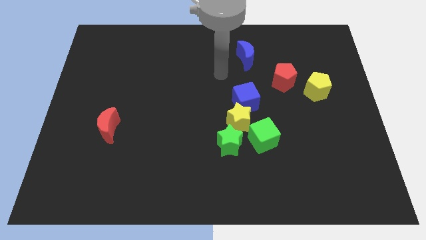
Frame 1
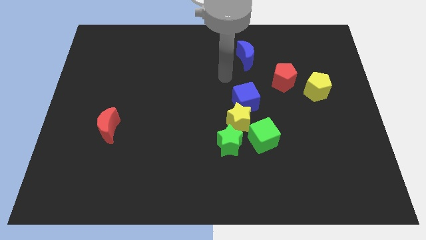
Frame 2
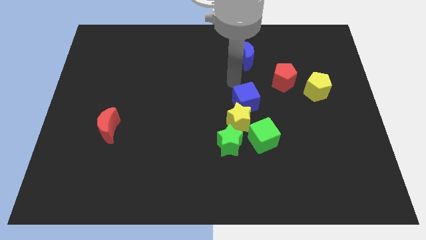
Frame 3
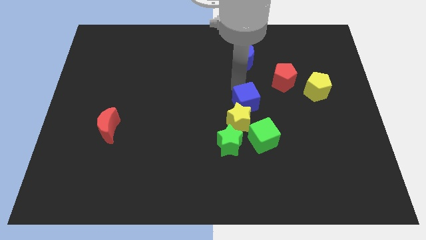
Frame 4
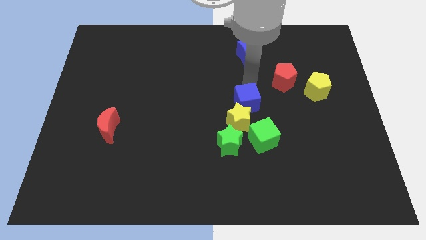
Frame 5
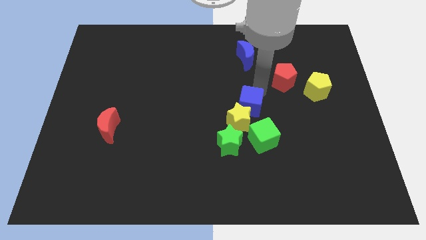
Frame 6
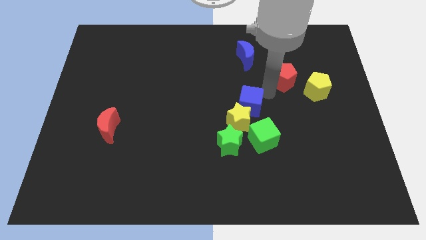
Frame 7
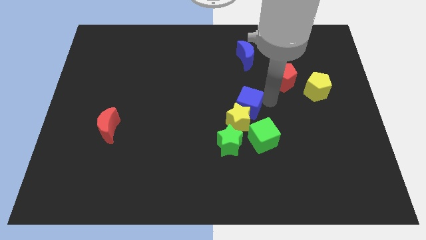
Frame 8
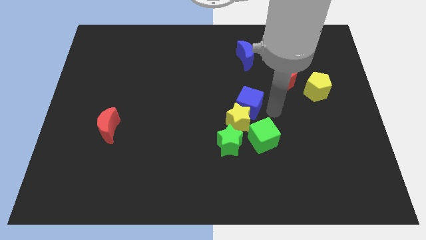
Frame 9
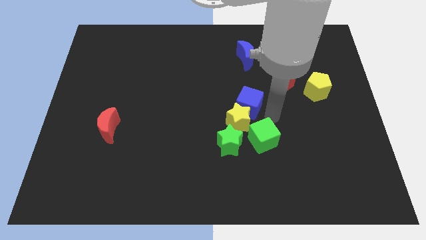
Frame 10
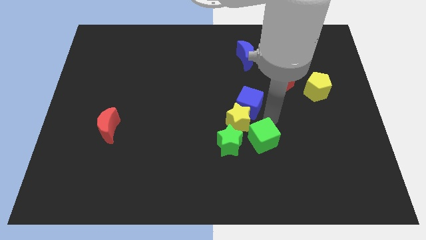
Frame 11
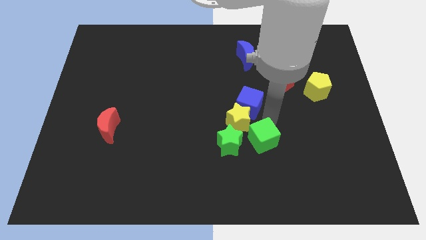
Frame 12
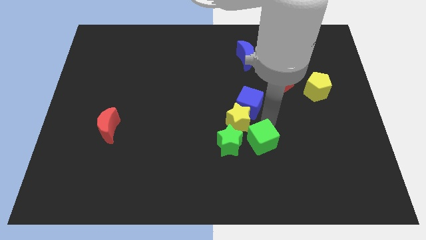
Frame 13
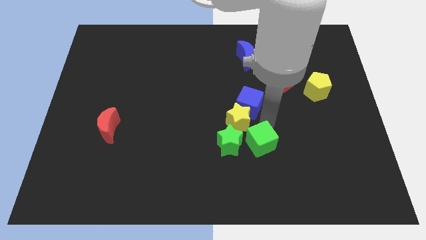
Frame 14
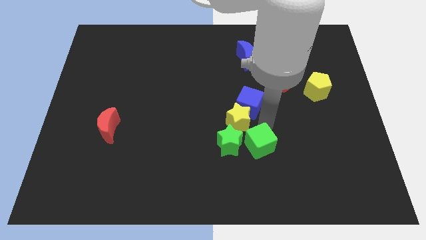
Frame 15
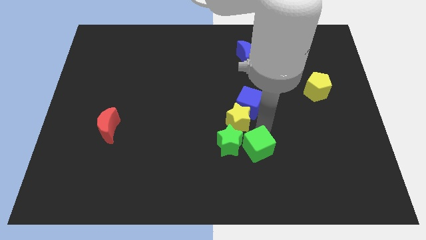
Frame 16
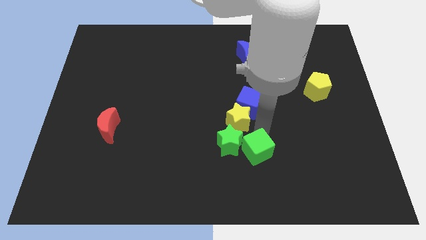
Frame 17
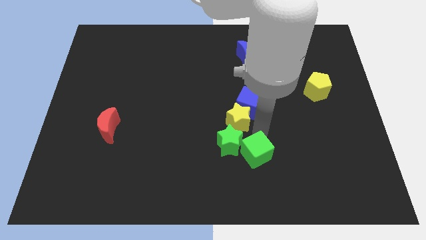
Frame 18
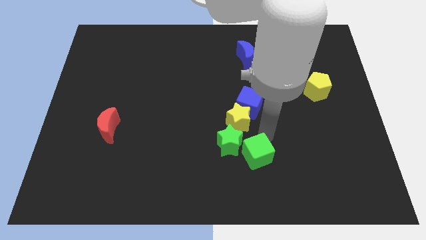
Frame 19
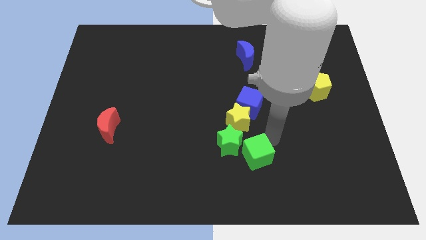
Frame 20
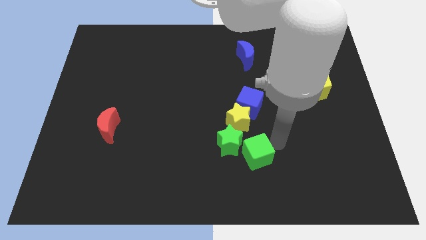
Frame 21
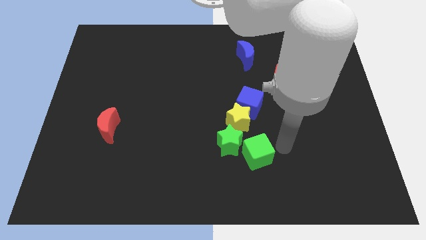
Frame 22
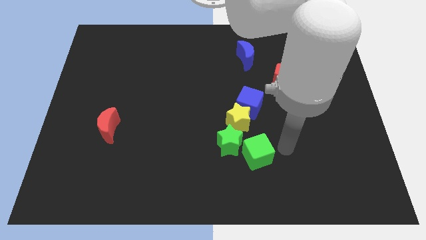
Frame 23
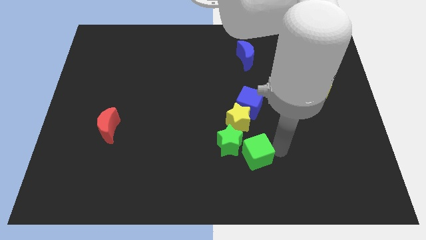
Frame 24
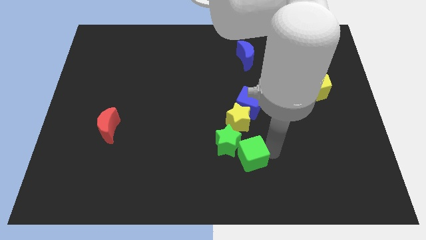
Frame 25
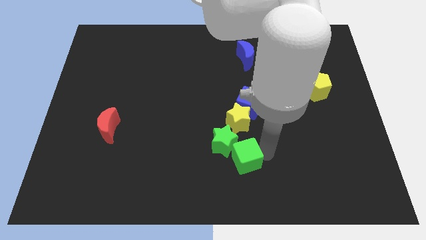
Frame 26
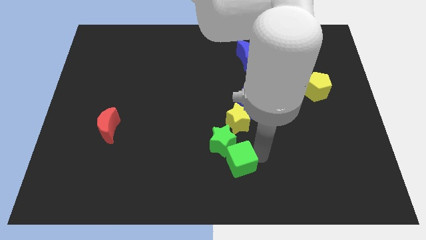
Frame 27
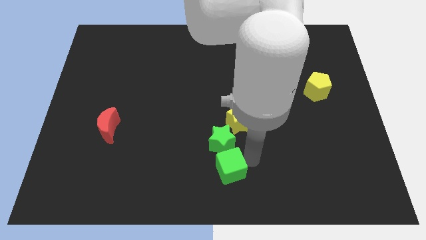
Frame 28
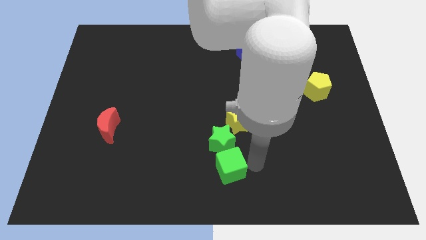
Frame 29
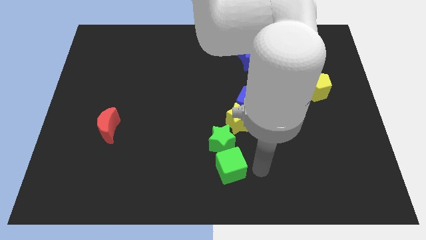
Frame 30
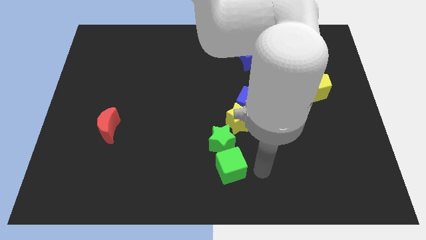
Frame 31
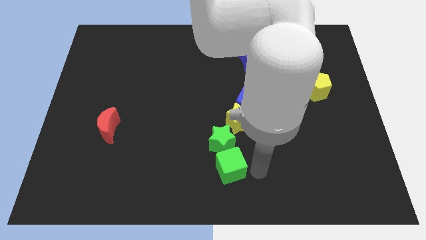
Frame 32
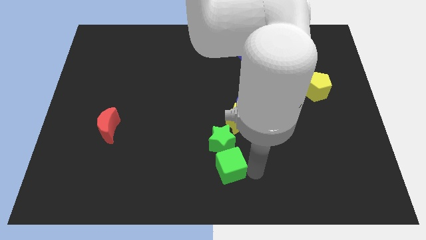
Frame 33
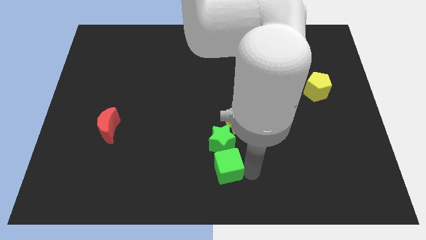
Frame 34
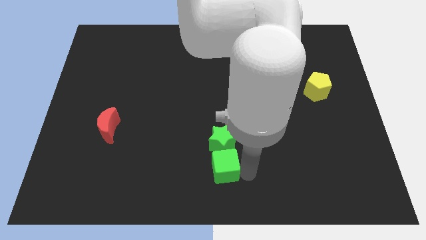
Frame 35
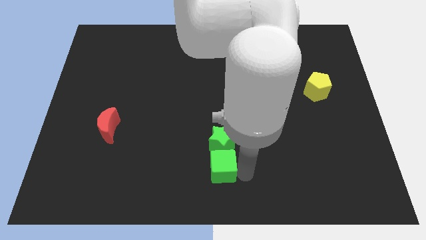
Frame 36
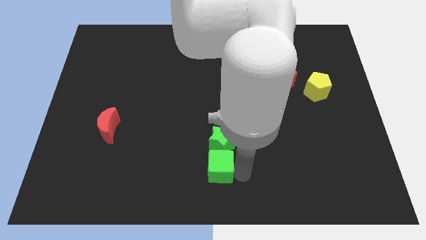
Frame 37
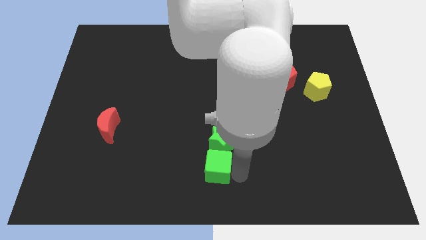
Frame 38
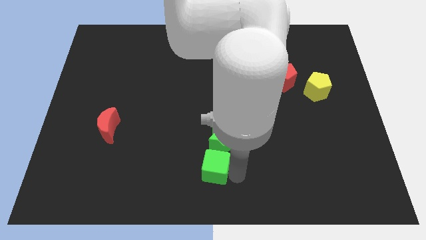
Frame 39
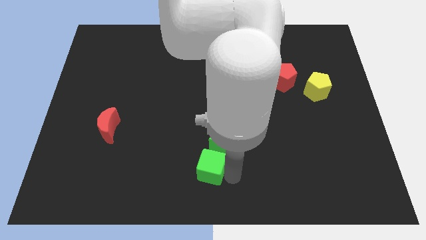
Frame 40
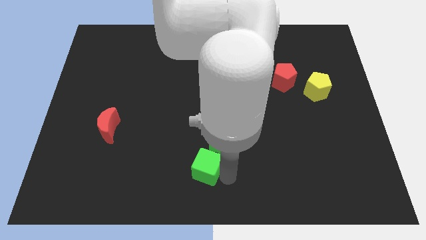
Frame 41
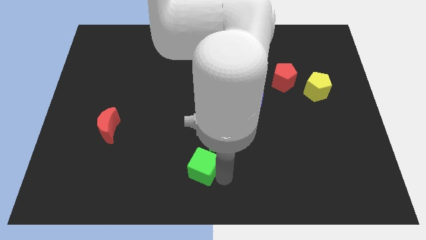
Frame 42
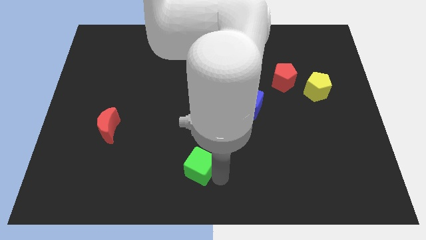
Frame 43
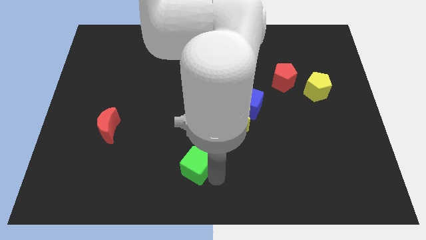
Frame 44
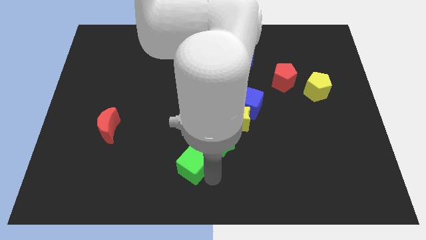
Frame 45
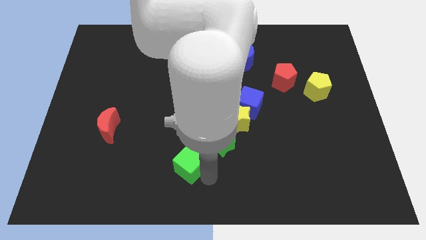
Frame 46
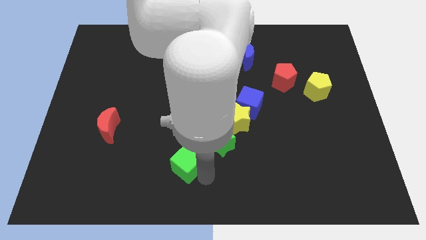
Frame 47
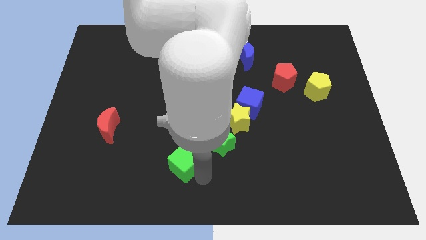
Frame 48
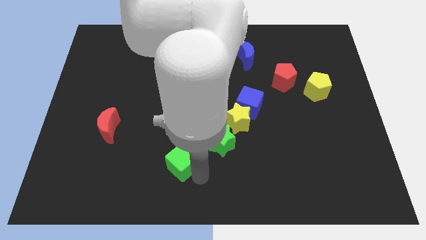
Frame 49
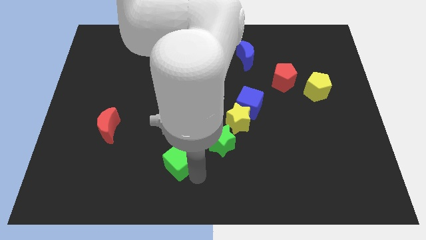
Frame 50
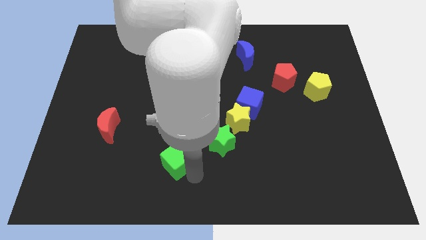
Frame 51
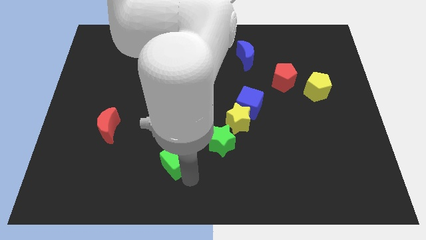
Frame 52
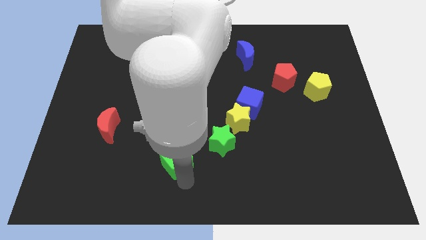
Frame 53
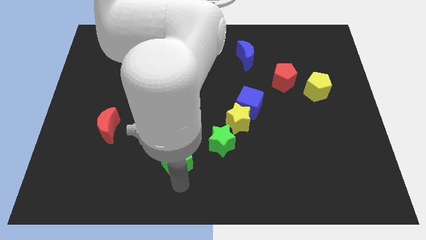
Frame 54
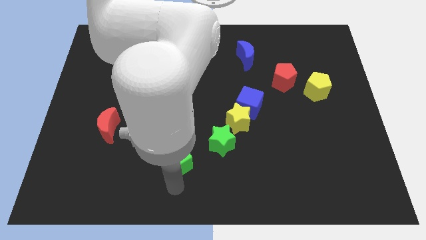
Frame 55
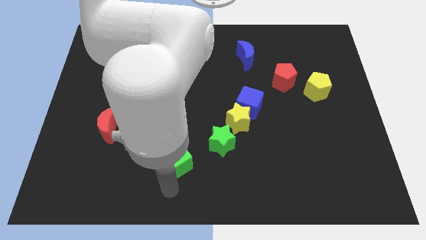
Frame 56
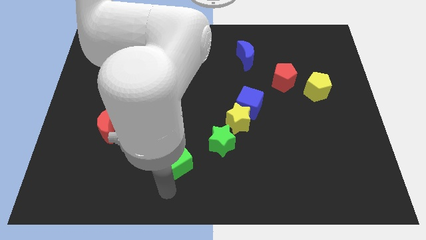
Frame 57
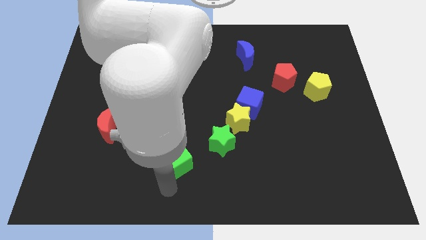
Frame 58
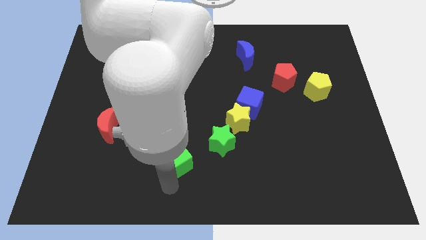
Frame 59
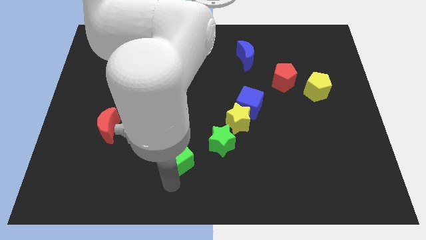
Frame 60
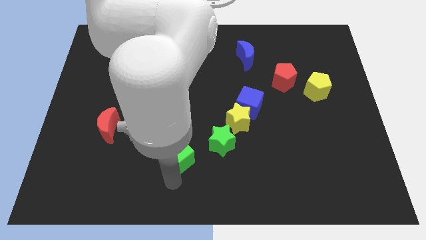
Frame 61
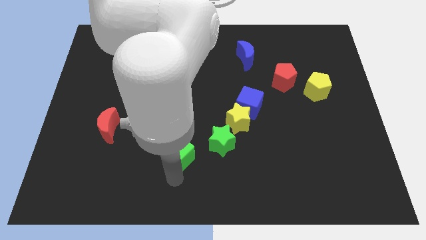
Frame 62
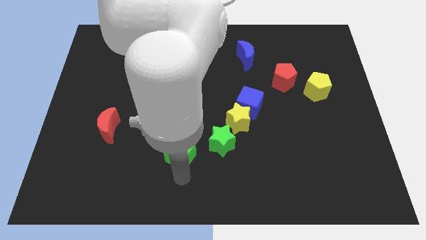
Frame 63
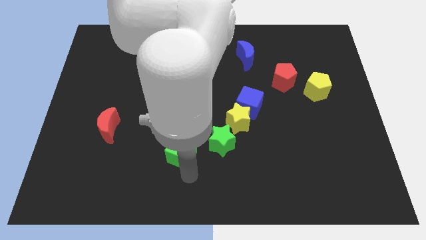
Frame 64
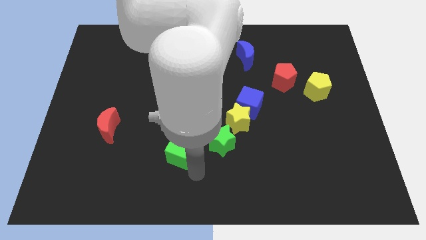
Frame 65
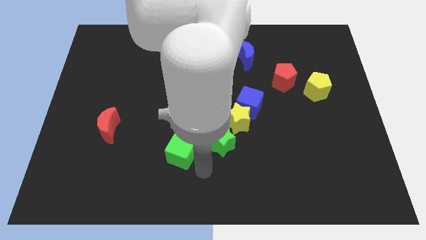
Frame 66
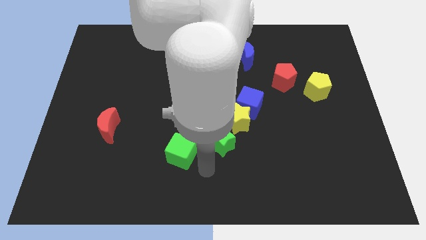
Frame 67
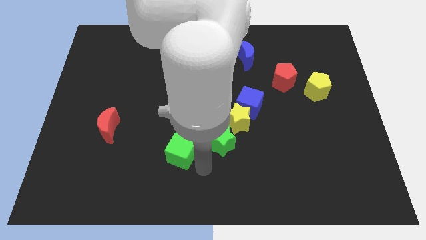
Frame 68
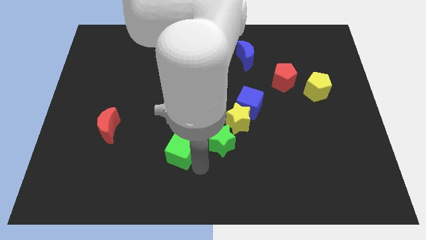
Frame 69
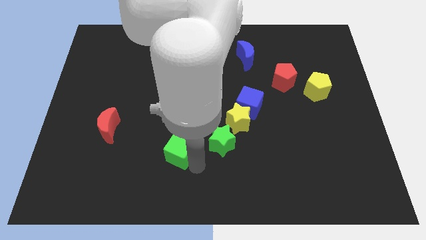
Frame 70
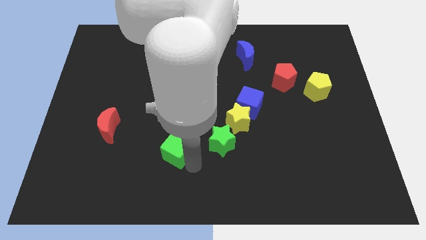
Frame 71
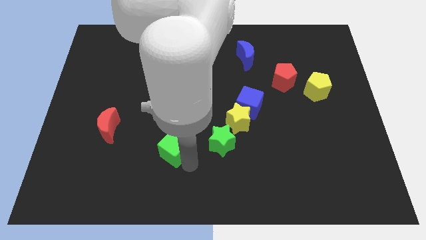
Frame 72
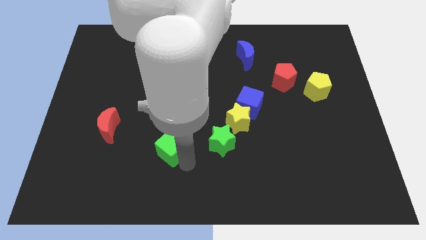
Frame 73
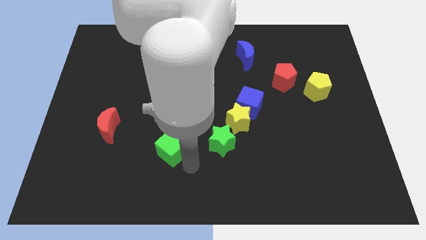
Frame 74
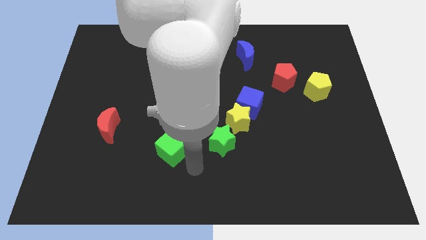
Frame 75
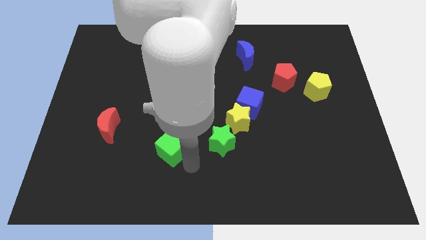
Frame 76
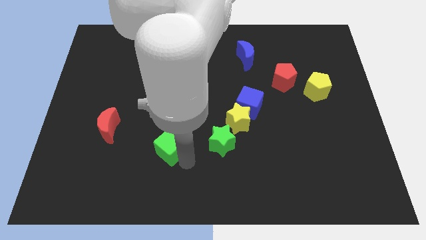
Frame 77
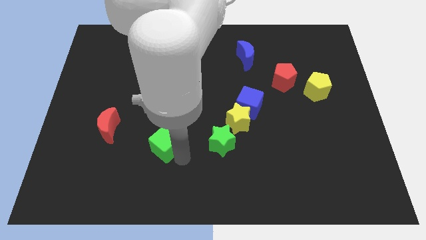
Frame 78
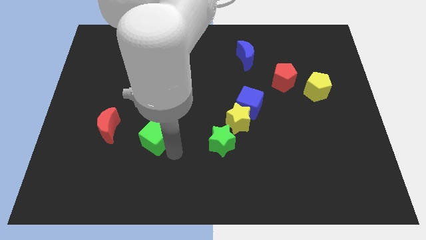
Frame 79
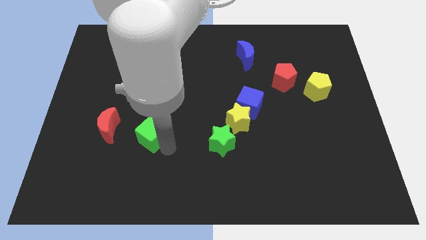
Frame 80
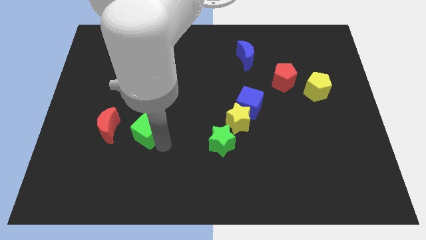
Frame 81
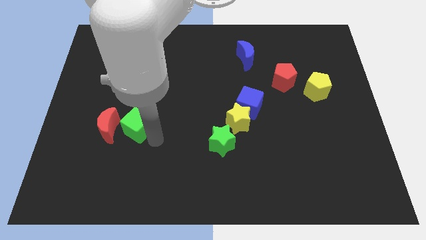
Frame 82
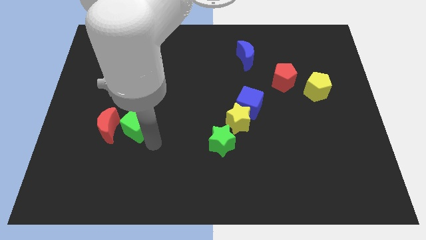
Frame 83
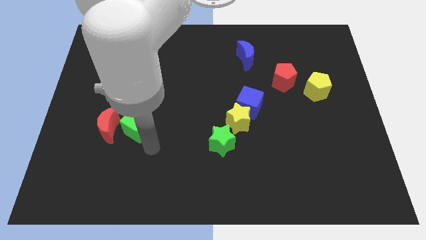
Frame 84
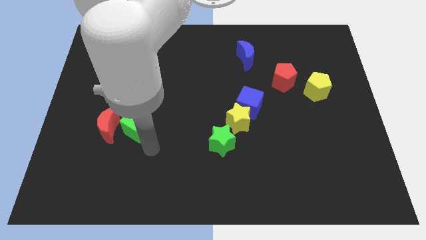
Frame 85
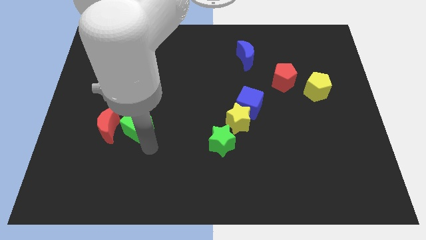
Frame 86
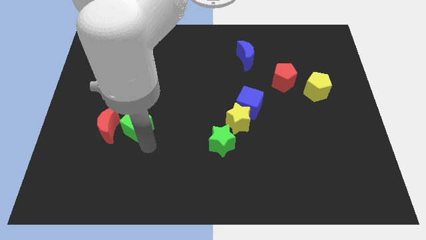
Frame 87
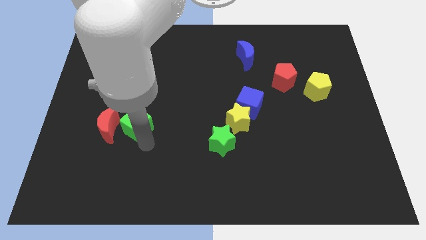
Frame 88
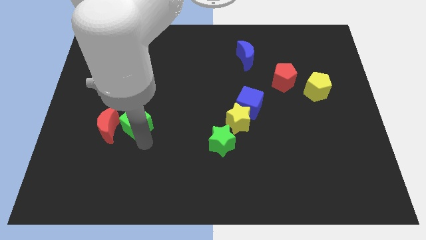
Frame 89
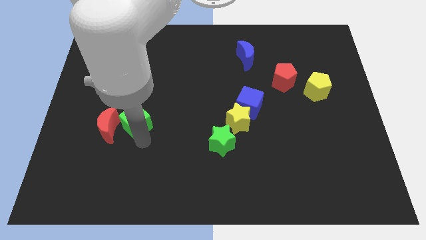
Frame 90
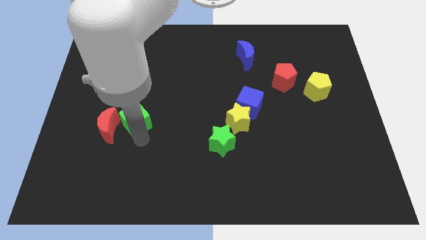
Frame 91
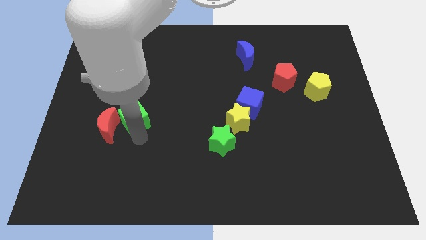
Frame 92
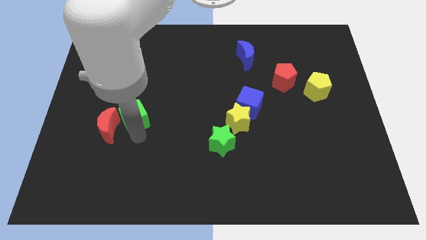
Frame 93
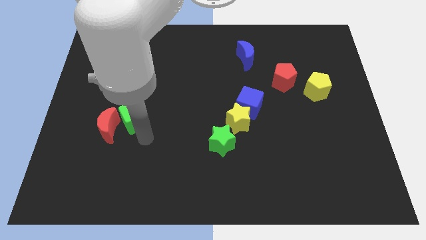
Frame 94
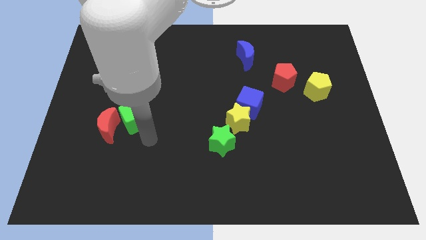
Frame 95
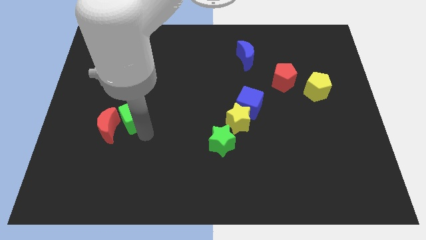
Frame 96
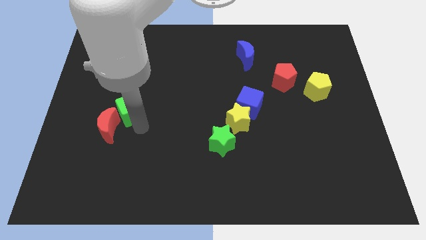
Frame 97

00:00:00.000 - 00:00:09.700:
slide the green cube above the red moon
